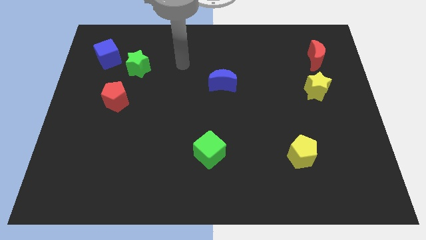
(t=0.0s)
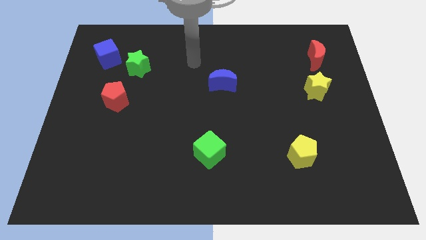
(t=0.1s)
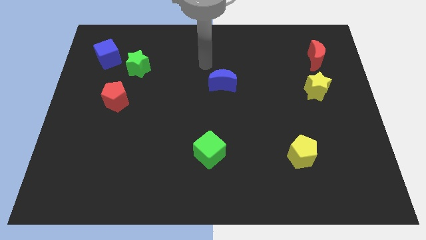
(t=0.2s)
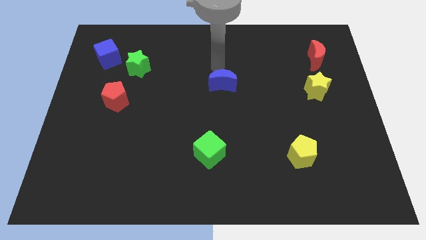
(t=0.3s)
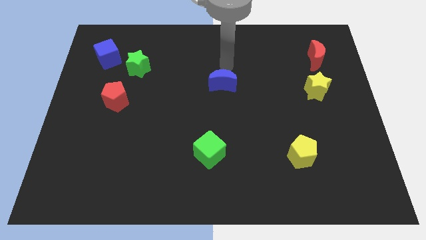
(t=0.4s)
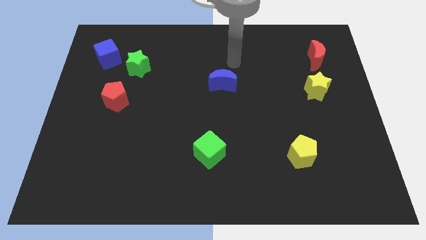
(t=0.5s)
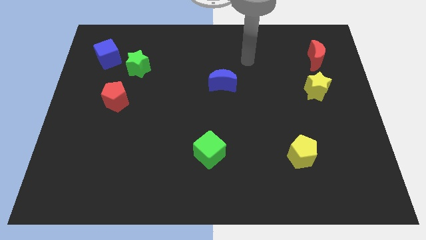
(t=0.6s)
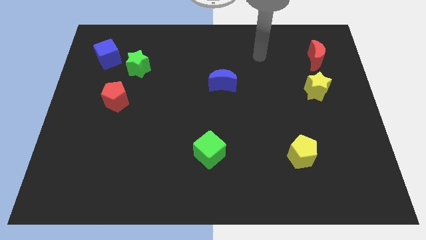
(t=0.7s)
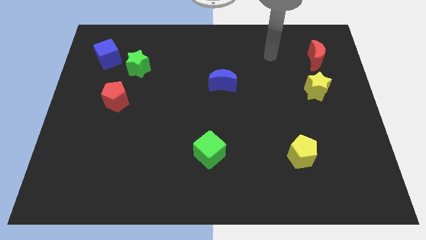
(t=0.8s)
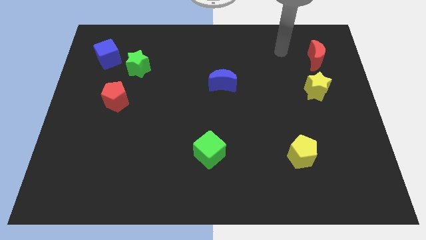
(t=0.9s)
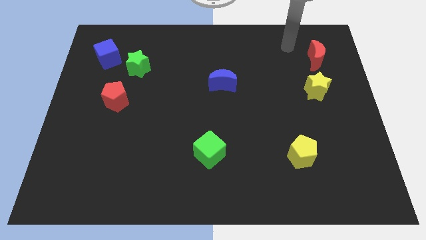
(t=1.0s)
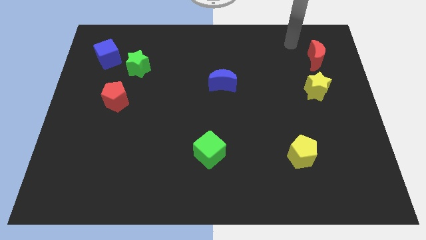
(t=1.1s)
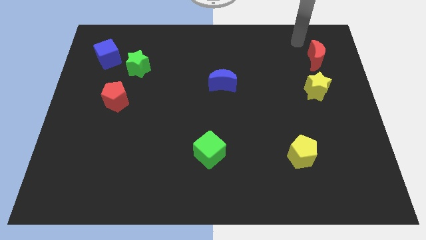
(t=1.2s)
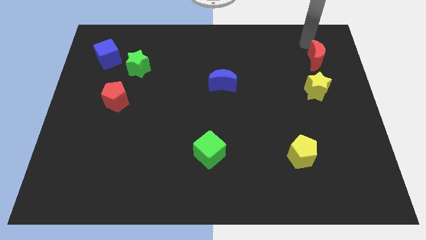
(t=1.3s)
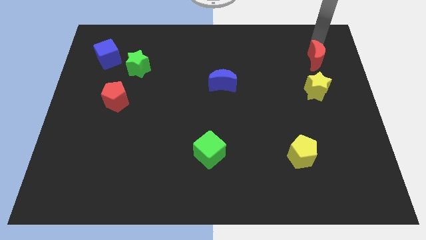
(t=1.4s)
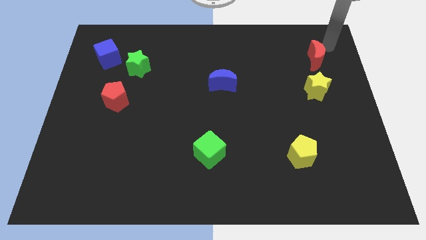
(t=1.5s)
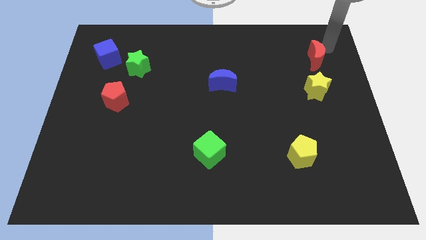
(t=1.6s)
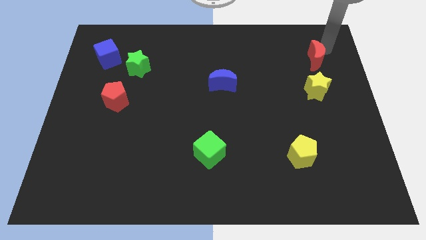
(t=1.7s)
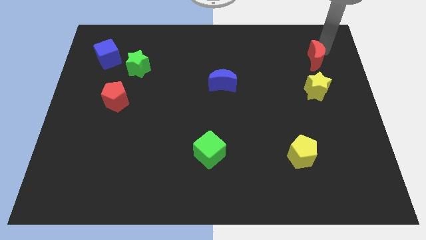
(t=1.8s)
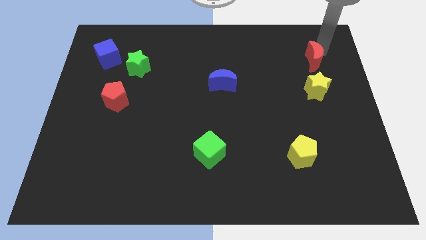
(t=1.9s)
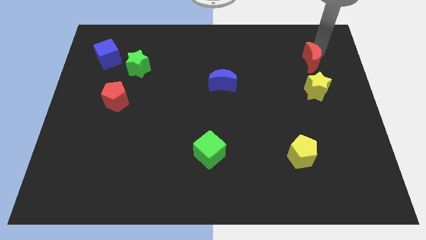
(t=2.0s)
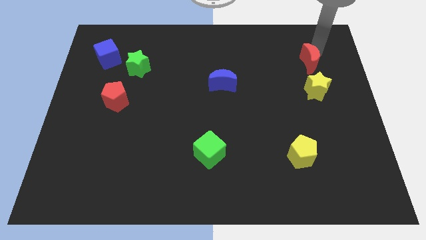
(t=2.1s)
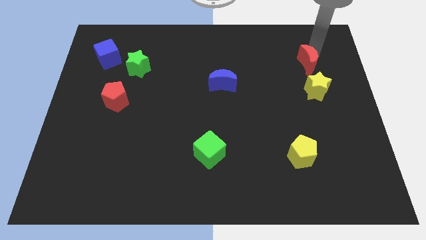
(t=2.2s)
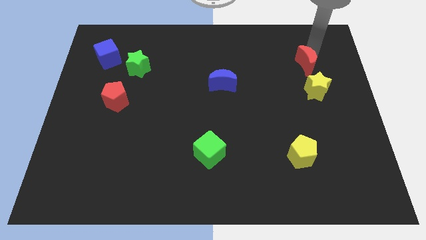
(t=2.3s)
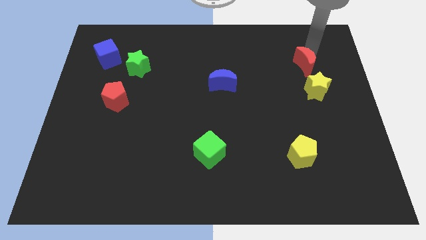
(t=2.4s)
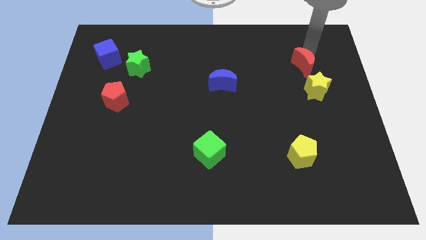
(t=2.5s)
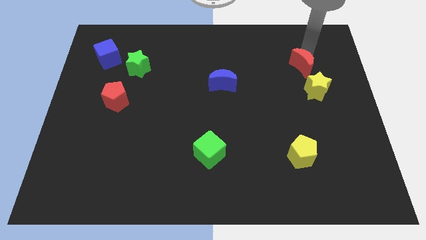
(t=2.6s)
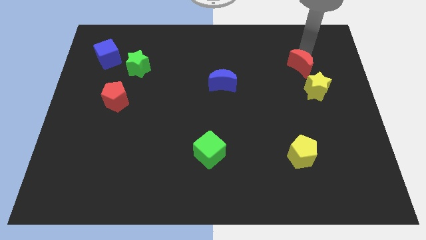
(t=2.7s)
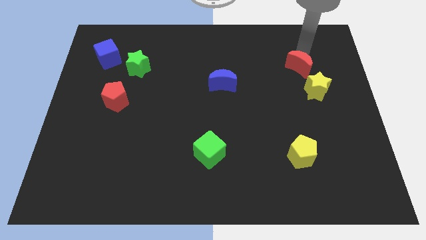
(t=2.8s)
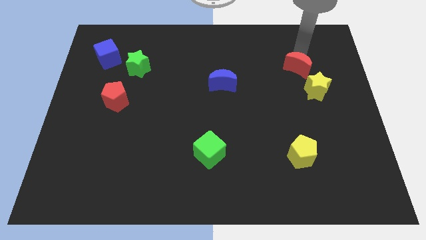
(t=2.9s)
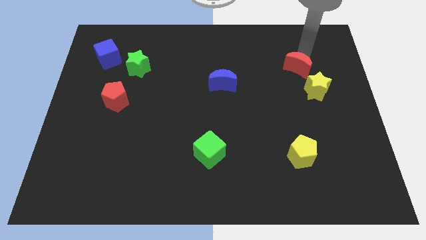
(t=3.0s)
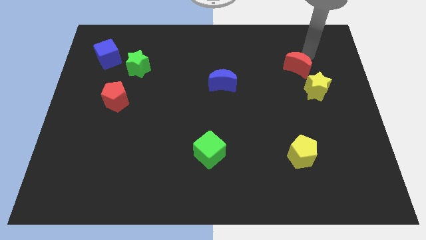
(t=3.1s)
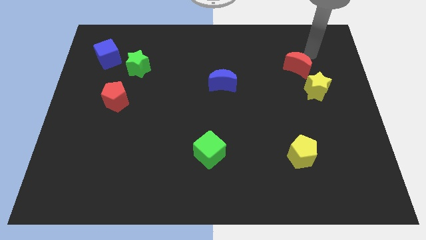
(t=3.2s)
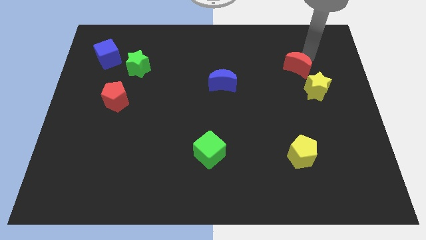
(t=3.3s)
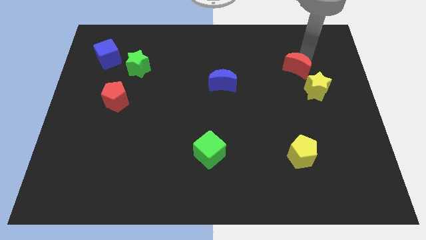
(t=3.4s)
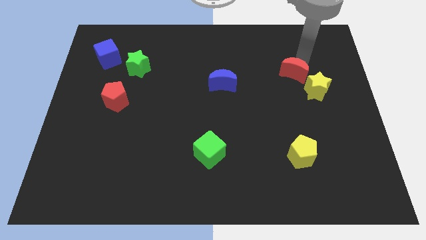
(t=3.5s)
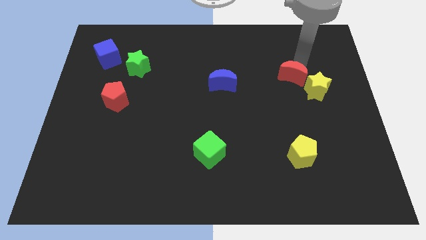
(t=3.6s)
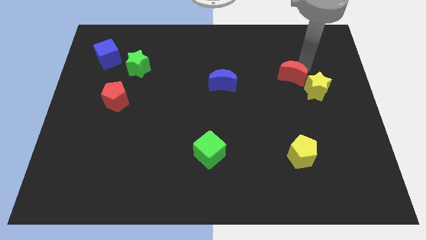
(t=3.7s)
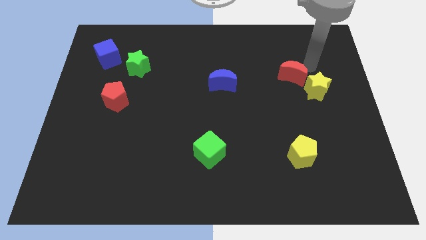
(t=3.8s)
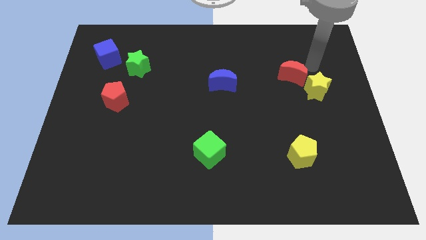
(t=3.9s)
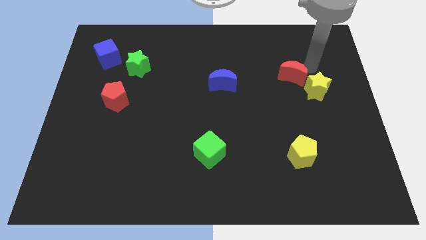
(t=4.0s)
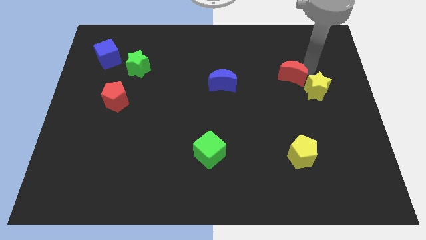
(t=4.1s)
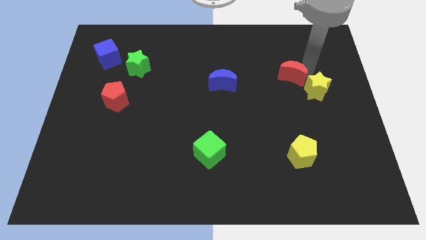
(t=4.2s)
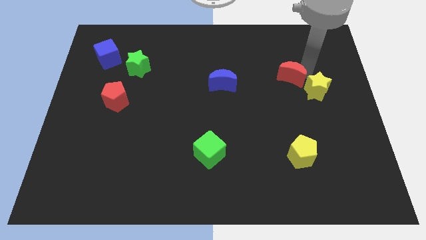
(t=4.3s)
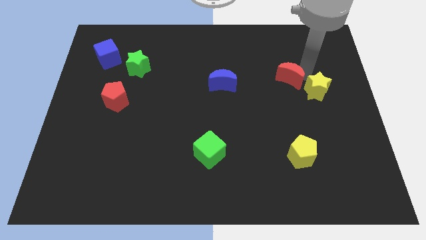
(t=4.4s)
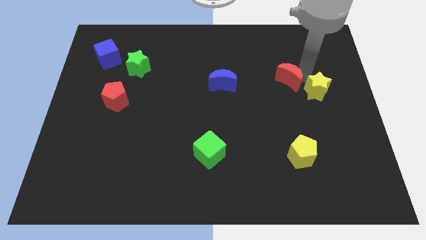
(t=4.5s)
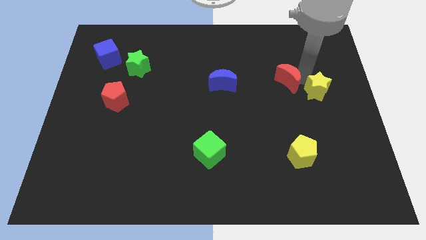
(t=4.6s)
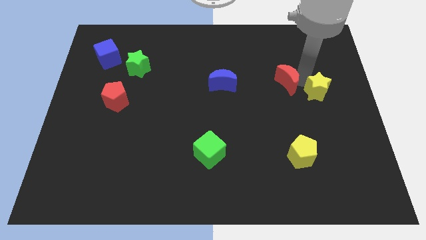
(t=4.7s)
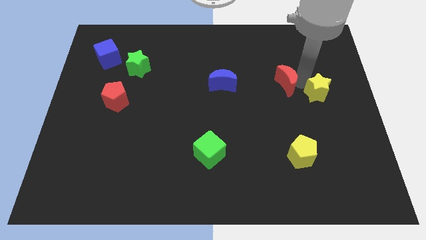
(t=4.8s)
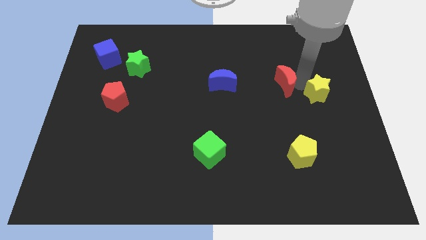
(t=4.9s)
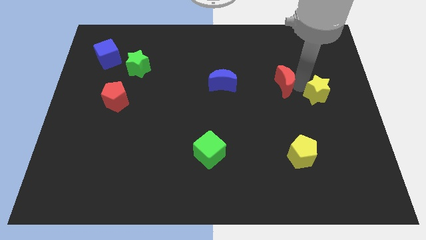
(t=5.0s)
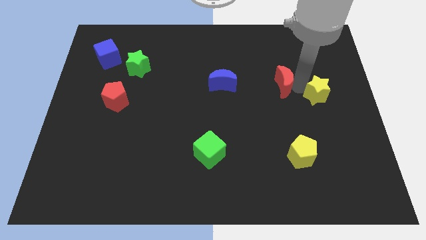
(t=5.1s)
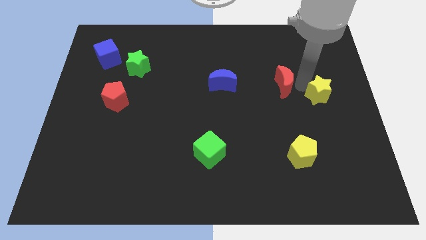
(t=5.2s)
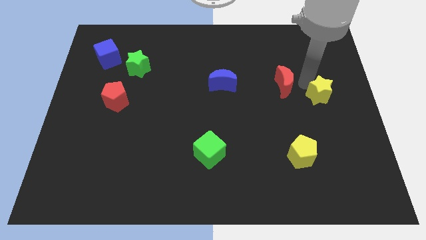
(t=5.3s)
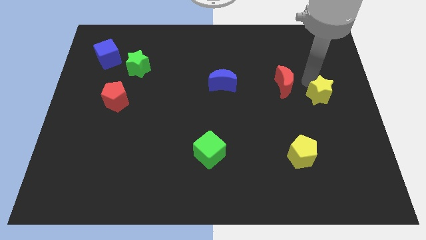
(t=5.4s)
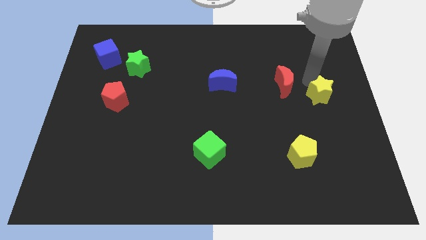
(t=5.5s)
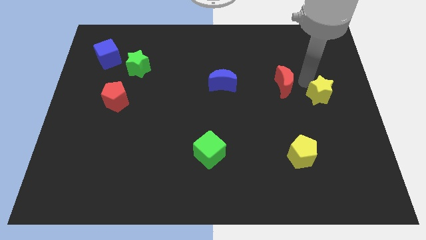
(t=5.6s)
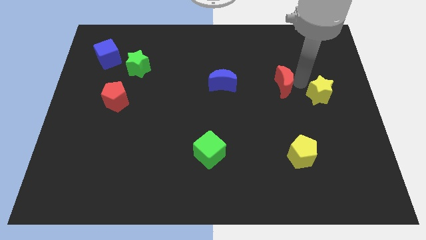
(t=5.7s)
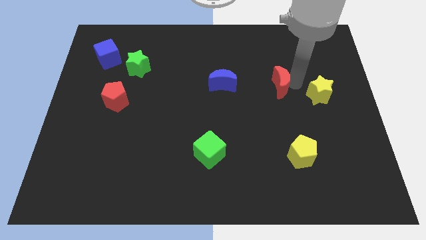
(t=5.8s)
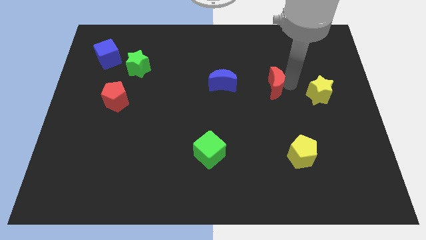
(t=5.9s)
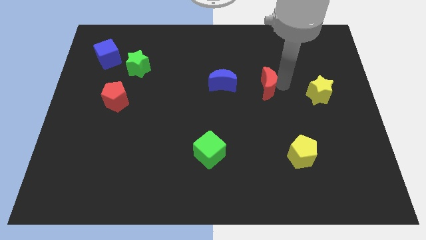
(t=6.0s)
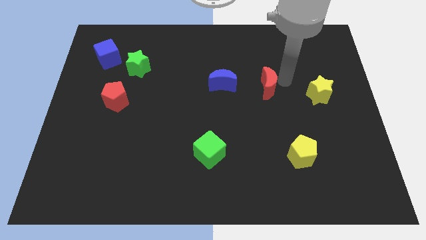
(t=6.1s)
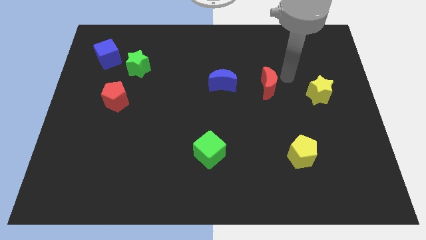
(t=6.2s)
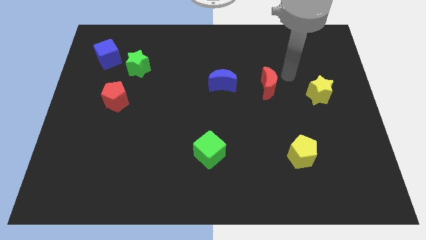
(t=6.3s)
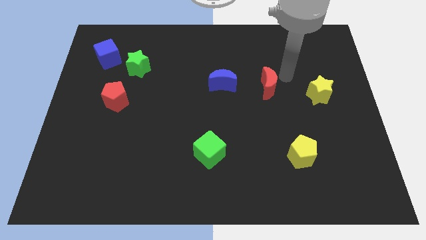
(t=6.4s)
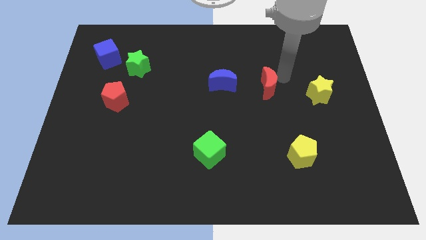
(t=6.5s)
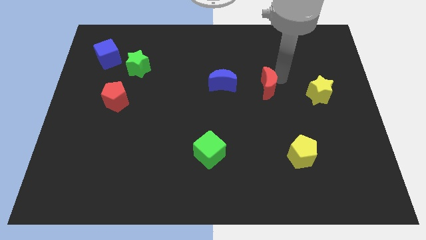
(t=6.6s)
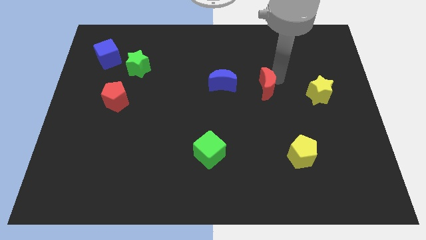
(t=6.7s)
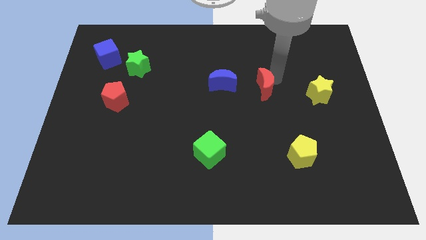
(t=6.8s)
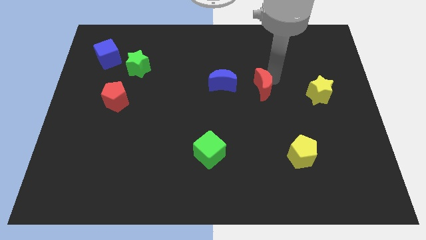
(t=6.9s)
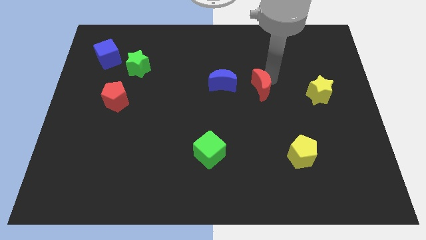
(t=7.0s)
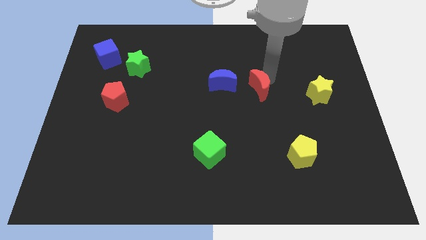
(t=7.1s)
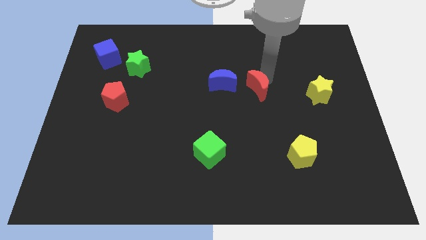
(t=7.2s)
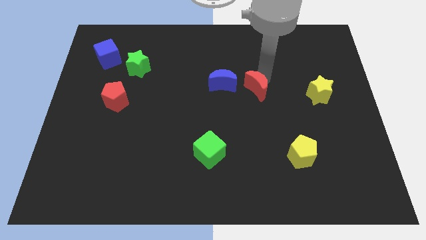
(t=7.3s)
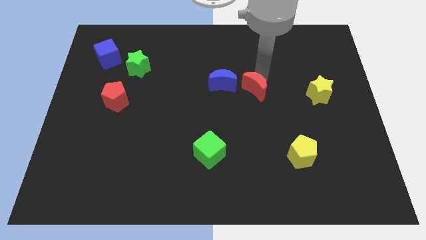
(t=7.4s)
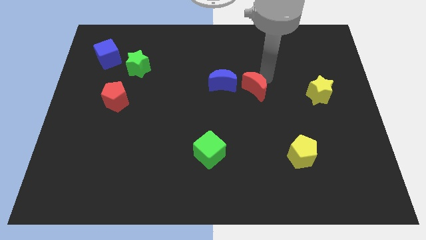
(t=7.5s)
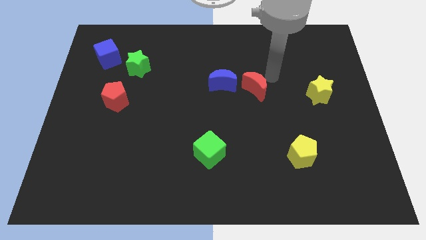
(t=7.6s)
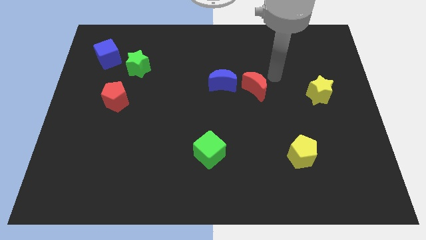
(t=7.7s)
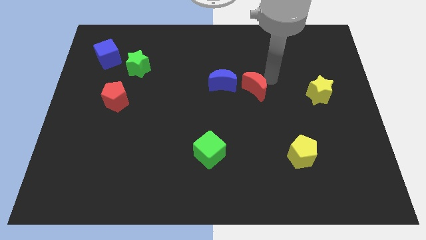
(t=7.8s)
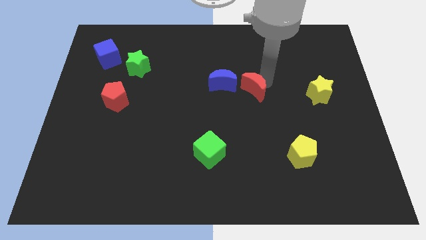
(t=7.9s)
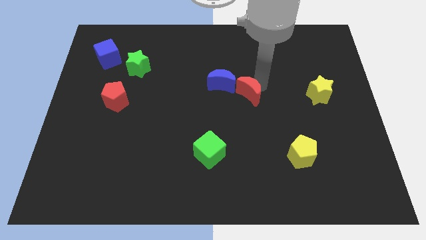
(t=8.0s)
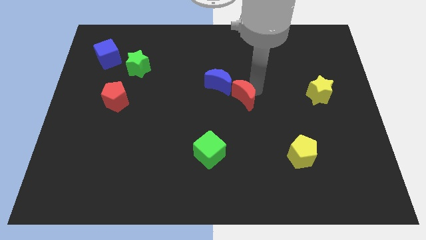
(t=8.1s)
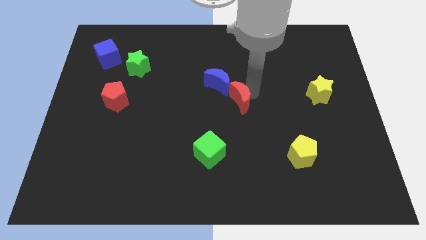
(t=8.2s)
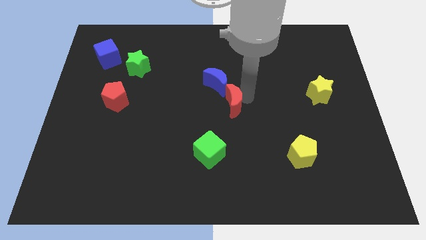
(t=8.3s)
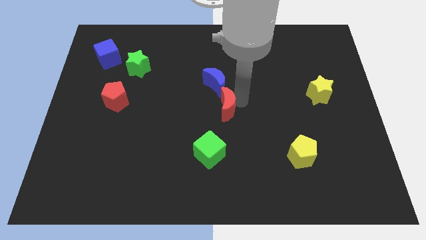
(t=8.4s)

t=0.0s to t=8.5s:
slide the red moon above the green cube
